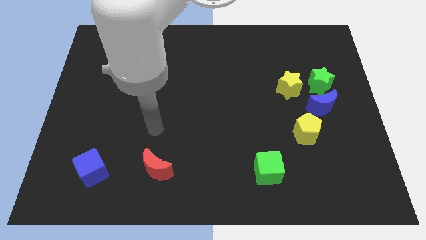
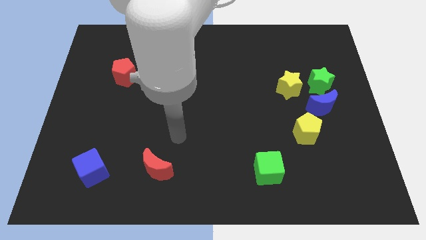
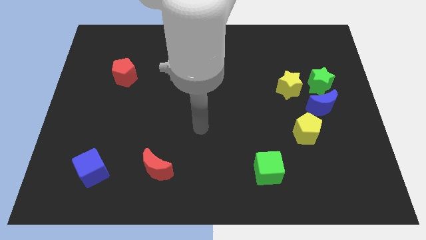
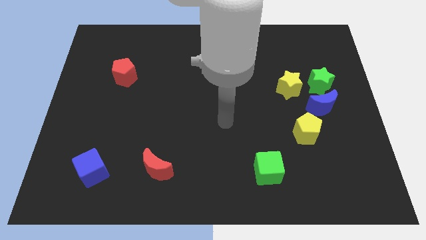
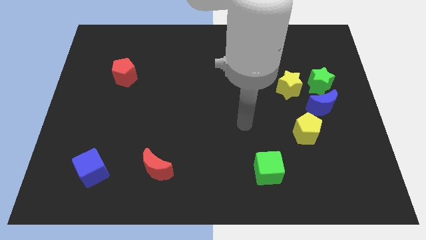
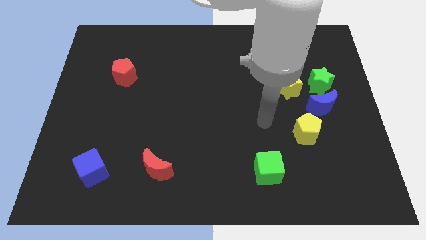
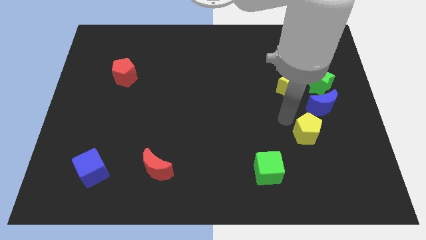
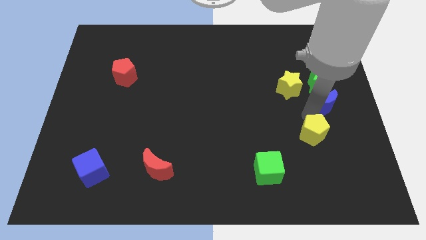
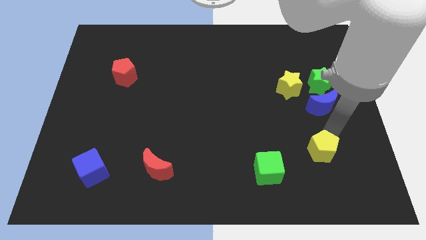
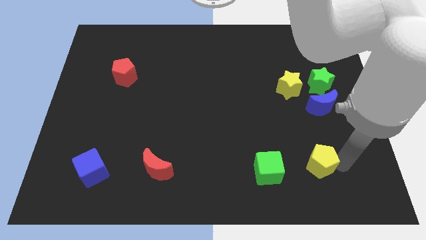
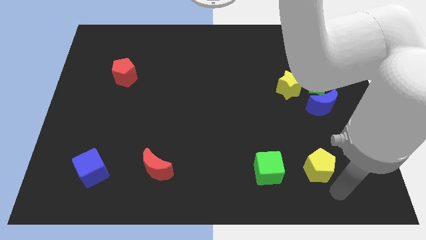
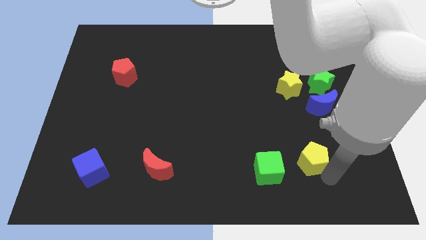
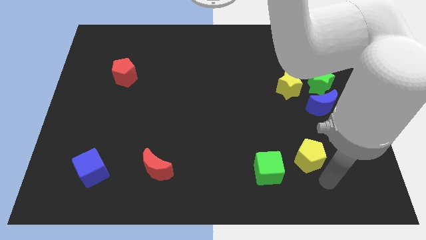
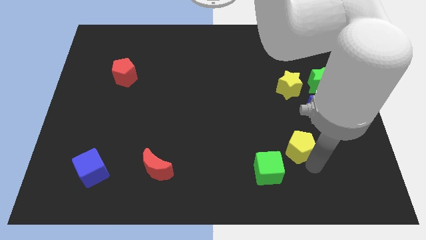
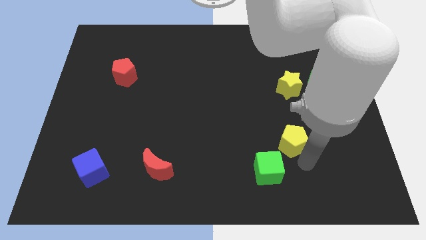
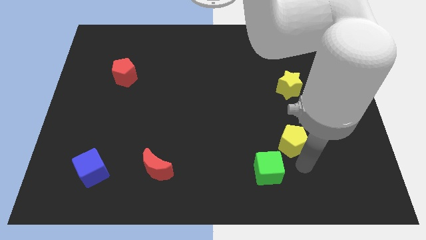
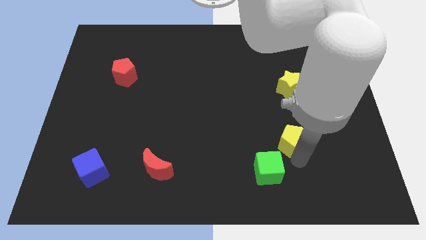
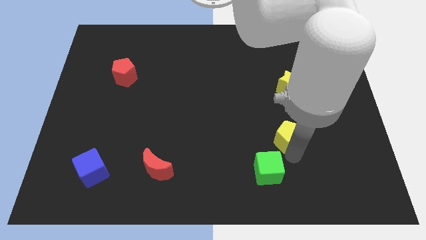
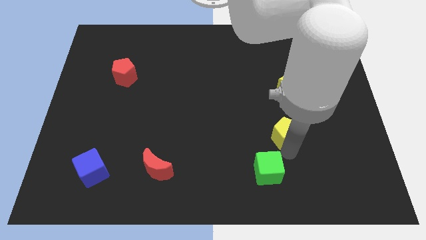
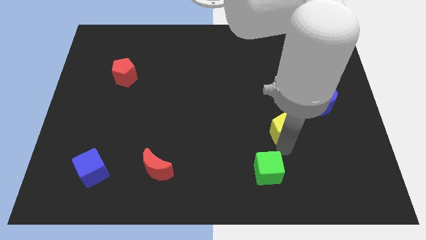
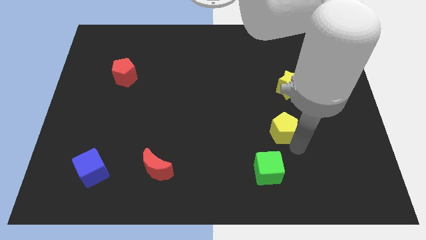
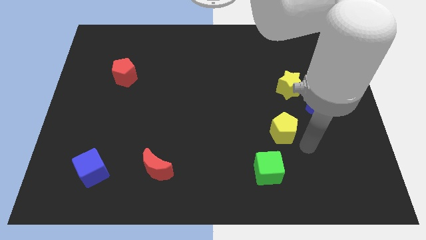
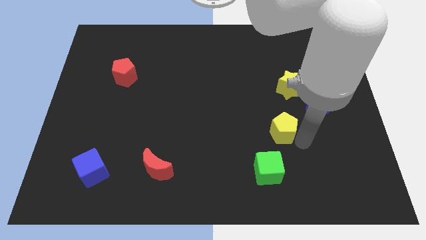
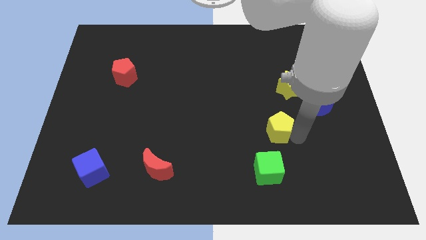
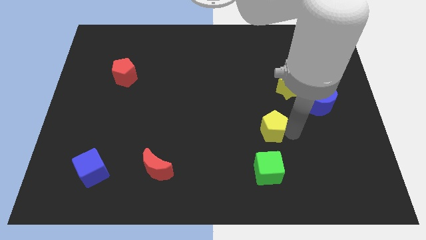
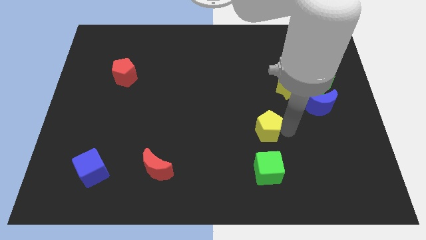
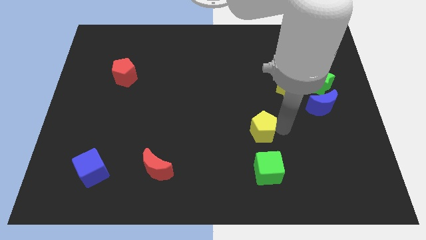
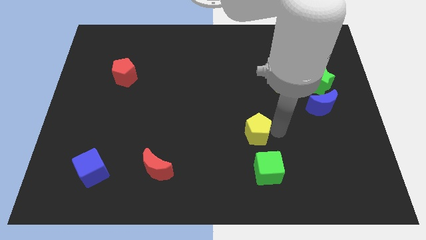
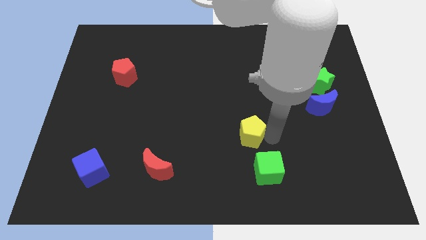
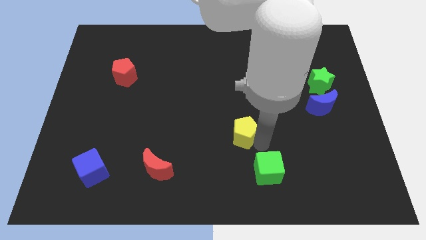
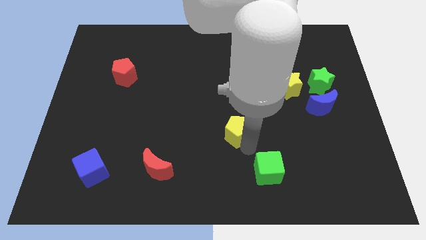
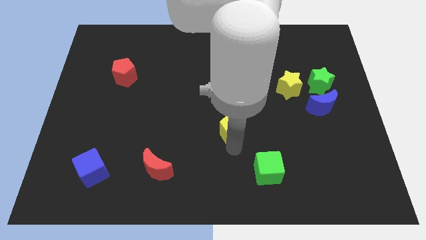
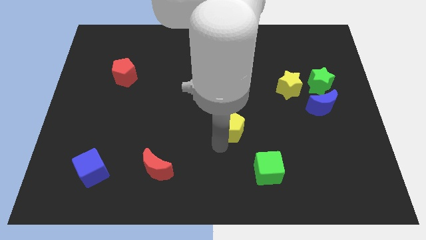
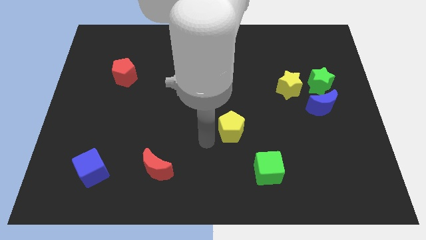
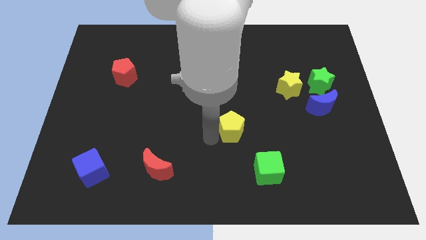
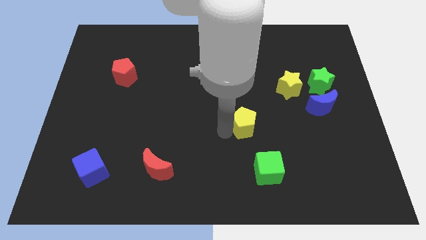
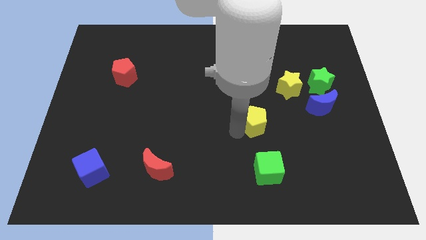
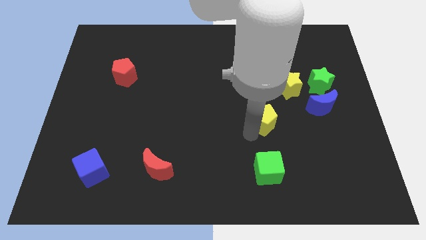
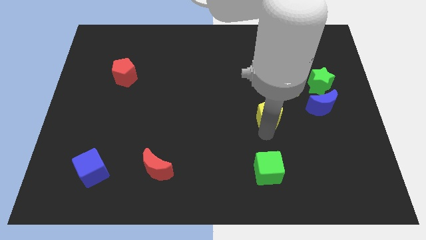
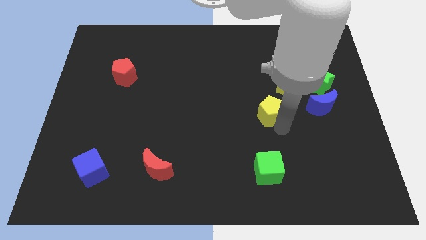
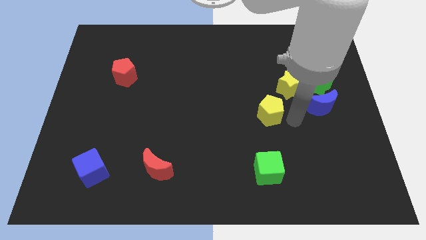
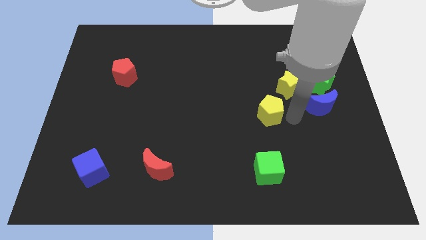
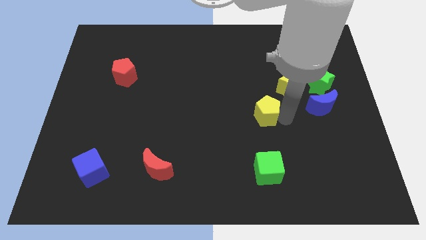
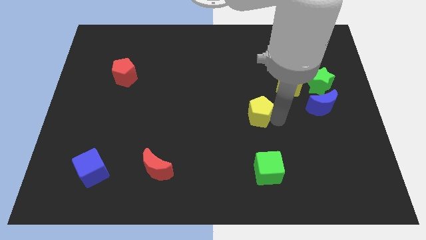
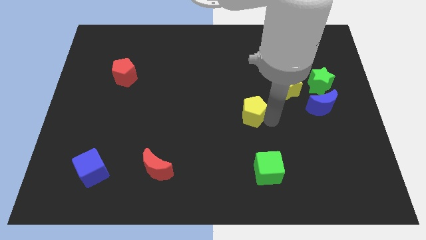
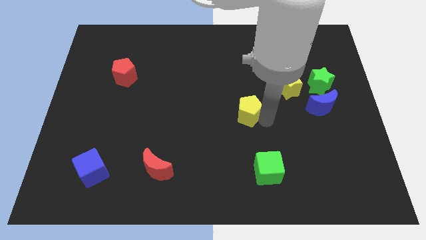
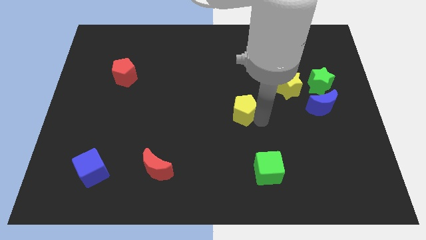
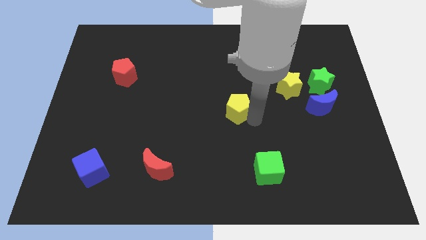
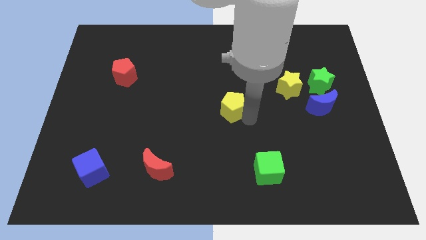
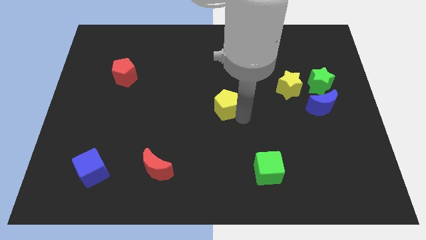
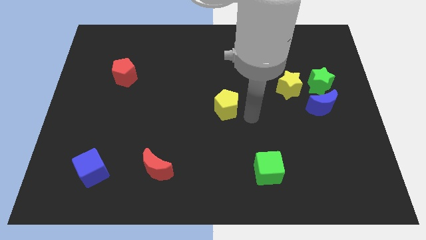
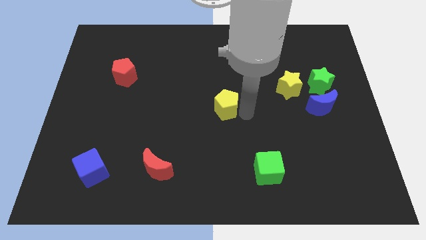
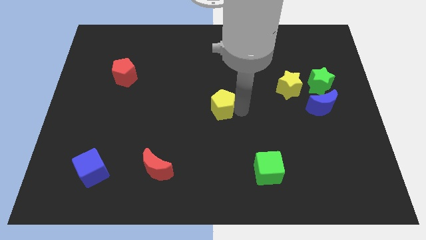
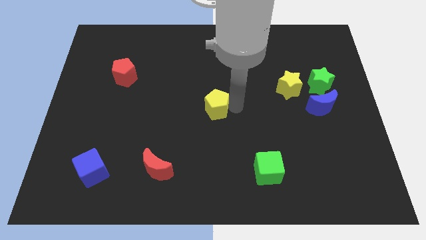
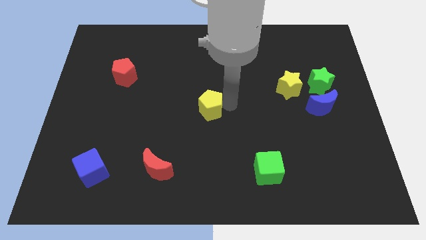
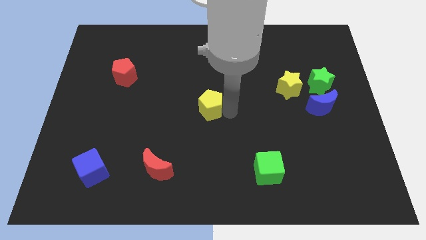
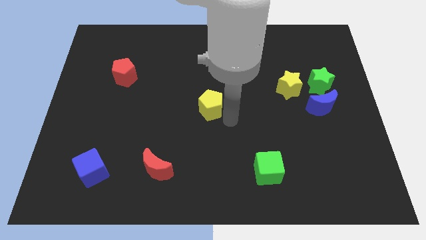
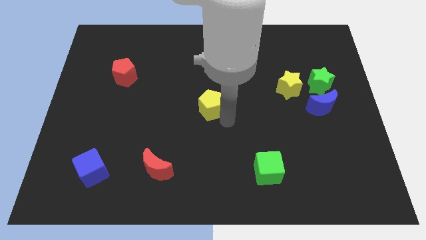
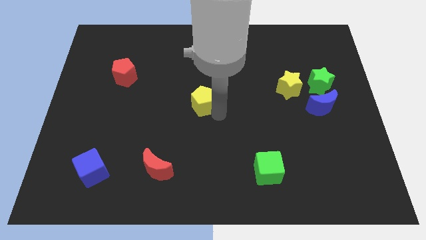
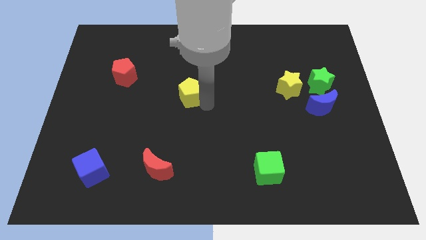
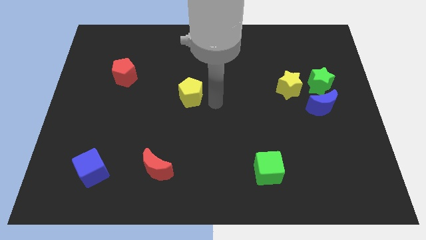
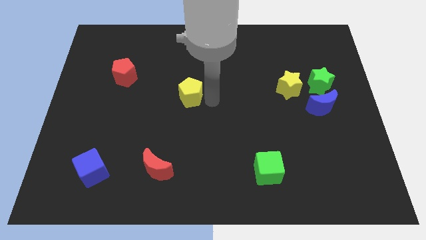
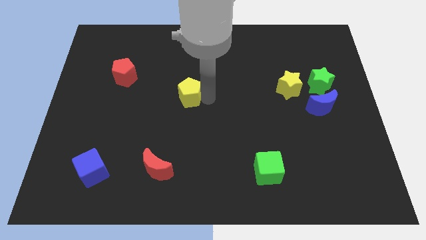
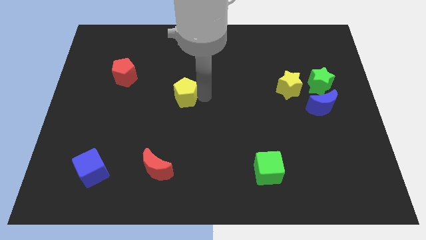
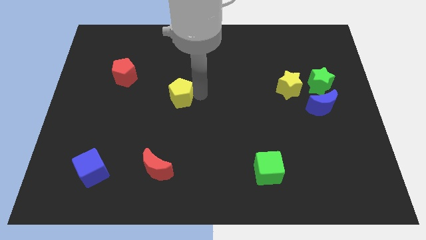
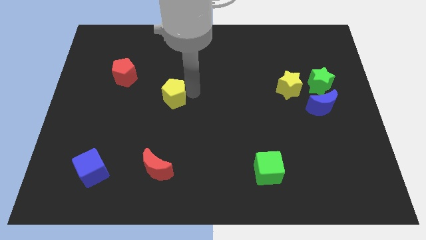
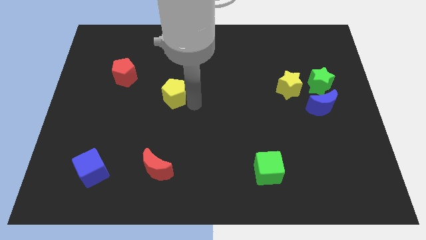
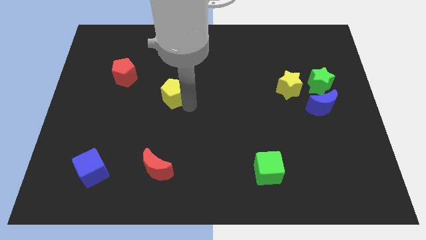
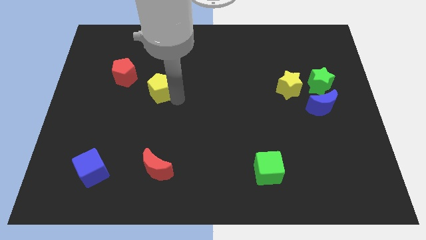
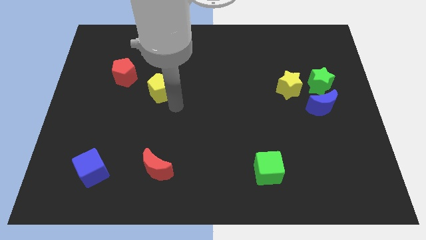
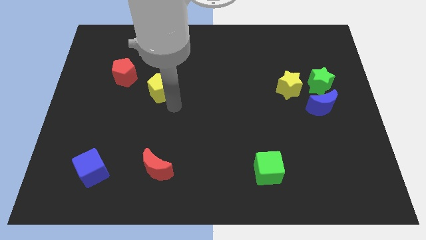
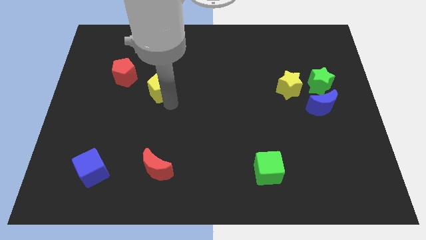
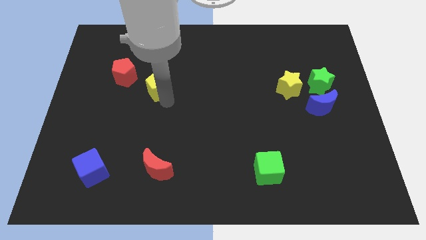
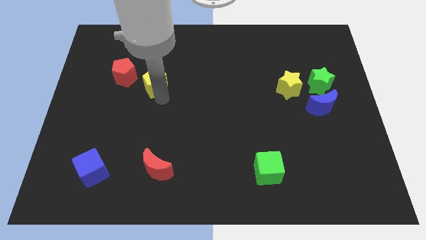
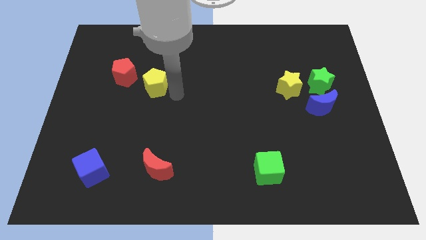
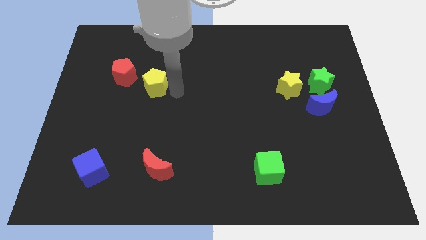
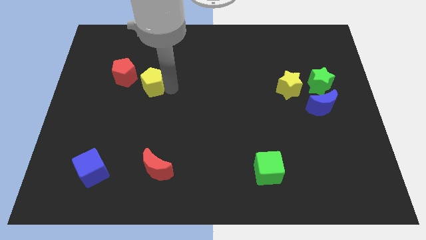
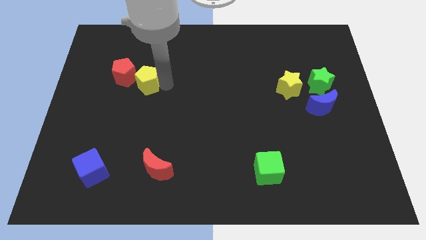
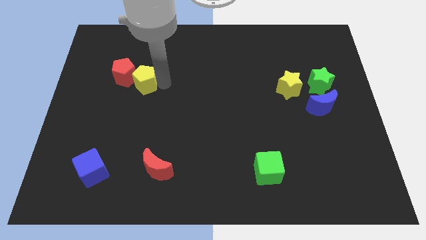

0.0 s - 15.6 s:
put the yellow pentagon close to the red pentagon
